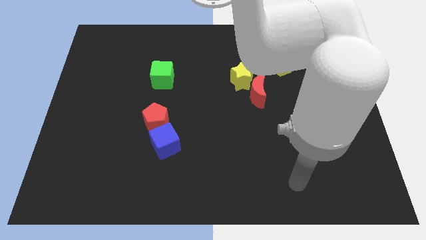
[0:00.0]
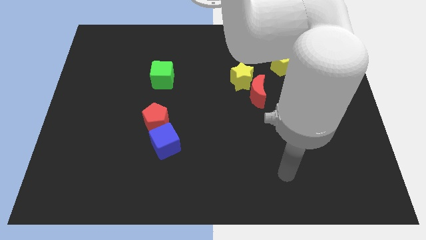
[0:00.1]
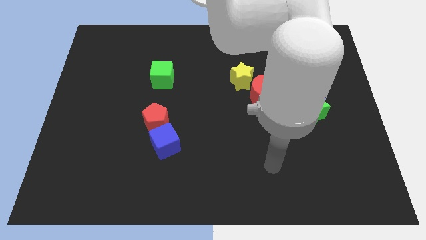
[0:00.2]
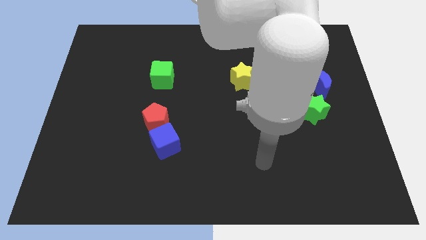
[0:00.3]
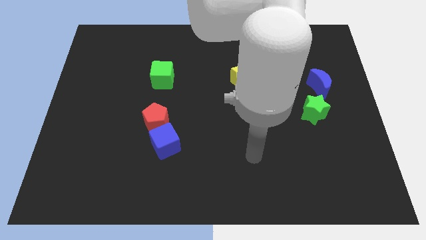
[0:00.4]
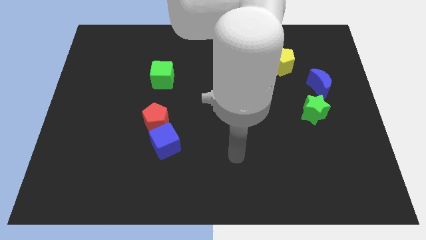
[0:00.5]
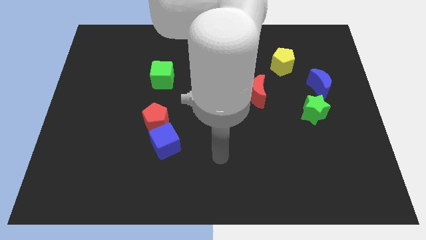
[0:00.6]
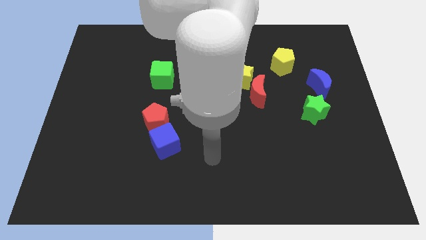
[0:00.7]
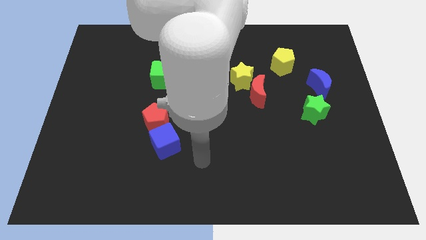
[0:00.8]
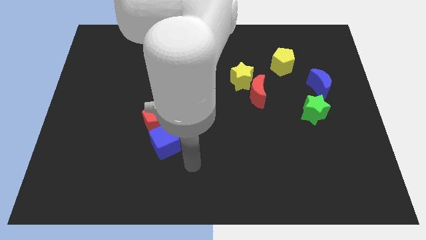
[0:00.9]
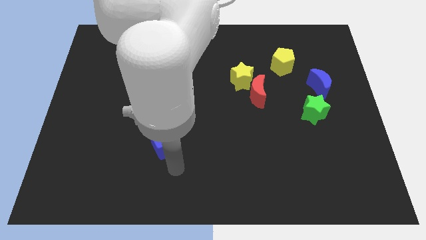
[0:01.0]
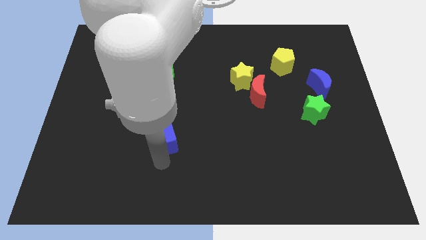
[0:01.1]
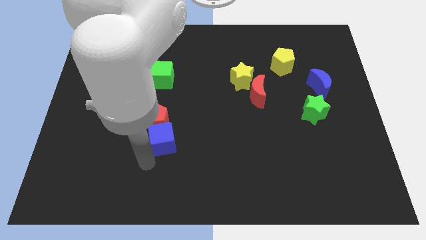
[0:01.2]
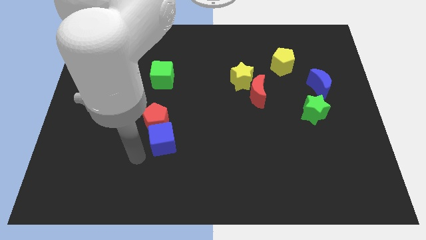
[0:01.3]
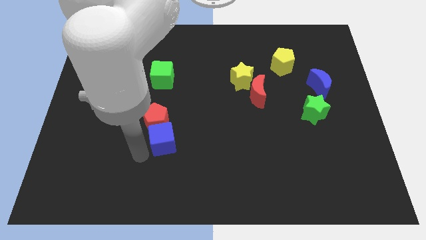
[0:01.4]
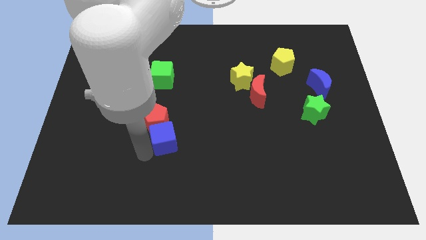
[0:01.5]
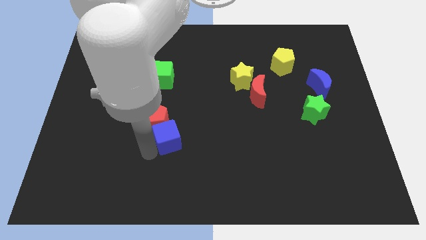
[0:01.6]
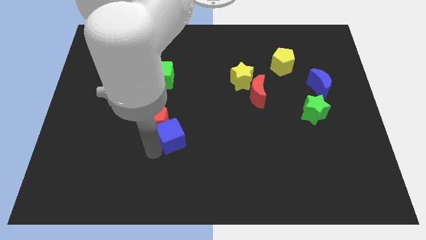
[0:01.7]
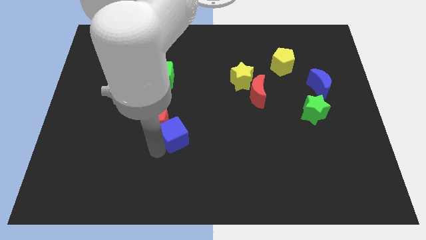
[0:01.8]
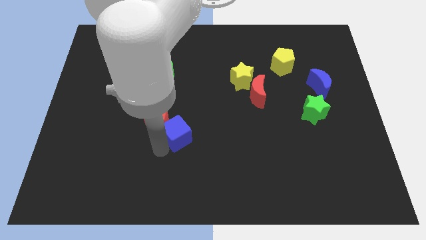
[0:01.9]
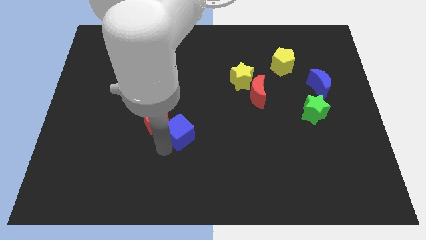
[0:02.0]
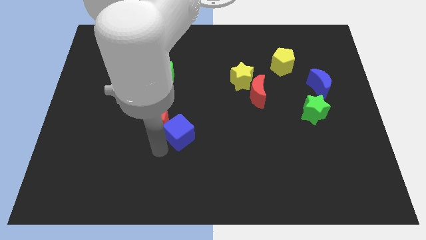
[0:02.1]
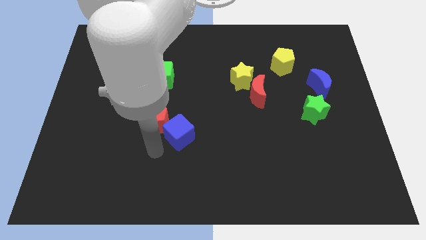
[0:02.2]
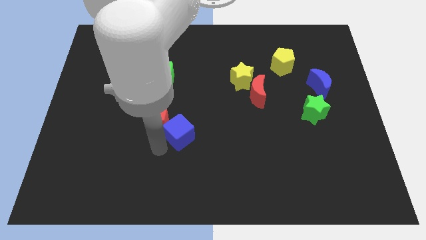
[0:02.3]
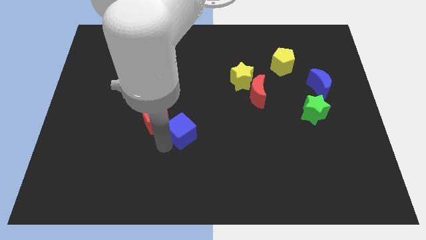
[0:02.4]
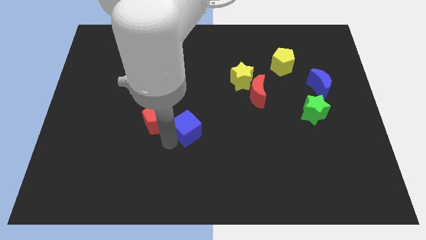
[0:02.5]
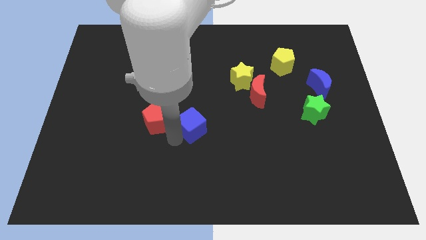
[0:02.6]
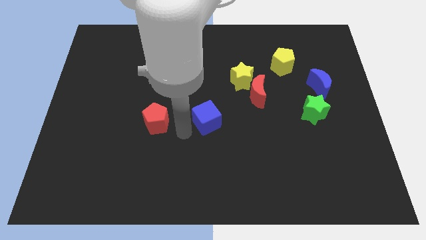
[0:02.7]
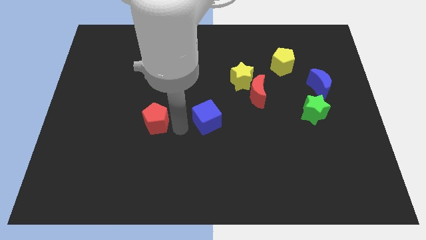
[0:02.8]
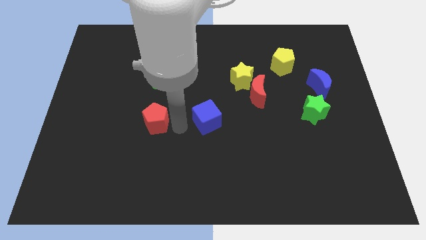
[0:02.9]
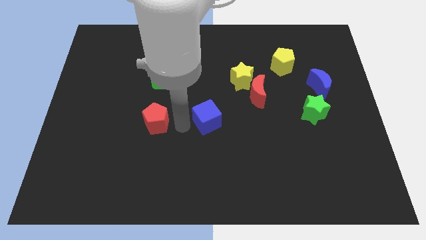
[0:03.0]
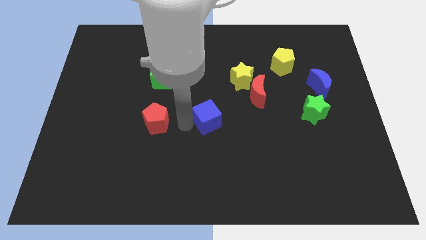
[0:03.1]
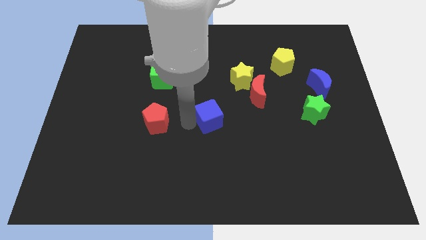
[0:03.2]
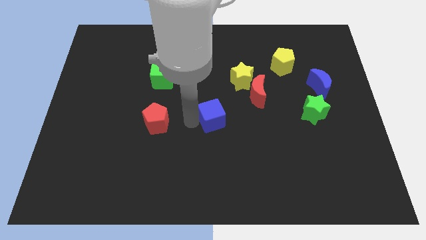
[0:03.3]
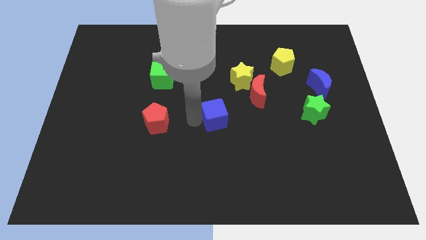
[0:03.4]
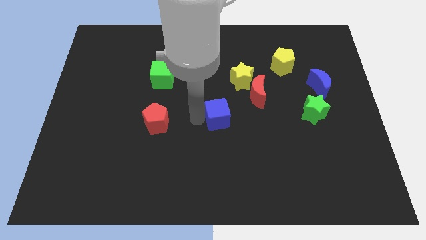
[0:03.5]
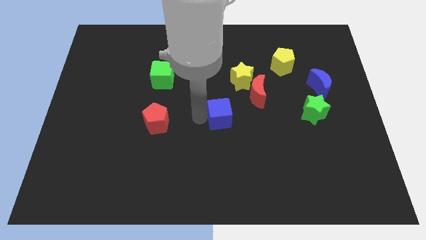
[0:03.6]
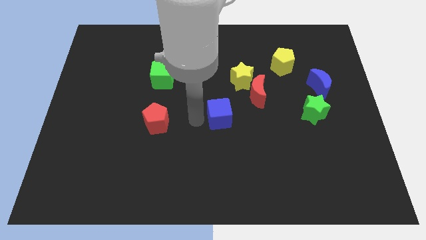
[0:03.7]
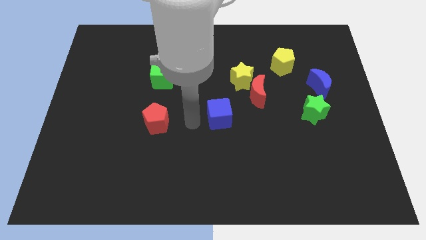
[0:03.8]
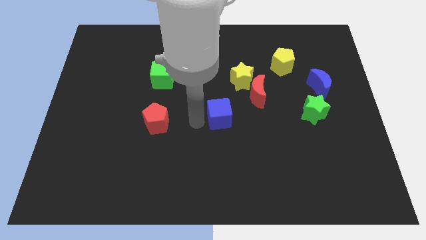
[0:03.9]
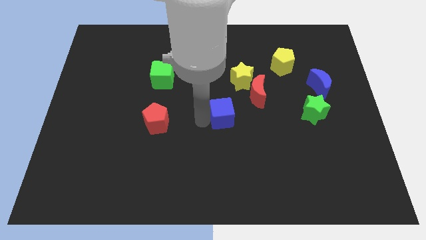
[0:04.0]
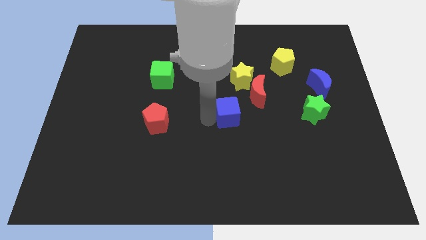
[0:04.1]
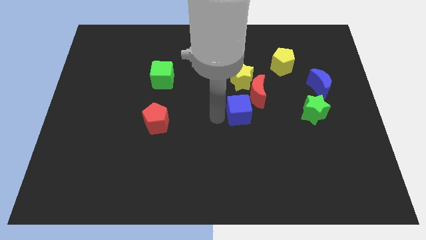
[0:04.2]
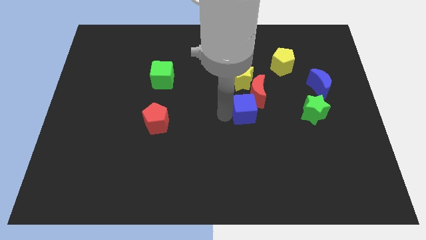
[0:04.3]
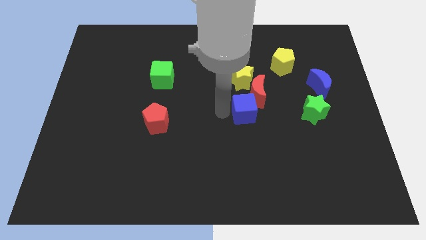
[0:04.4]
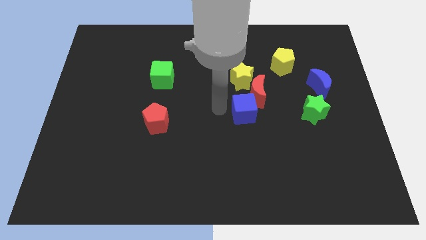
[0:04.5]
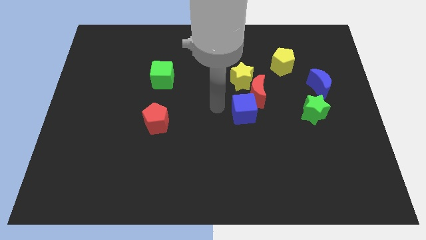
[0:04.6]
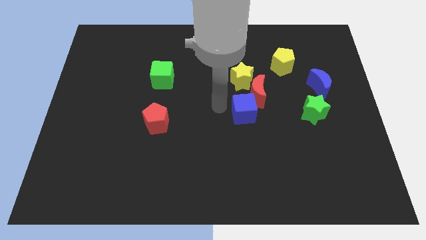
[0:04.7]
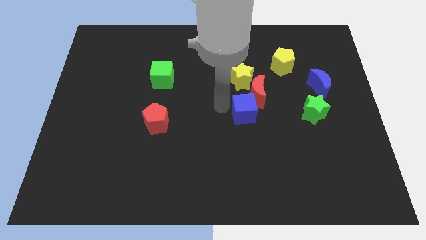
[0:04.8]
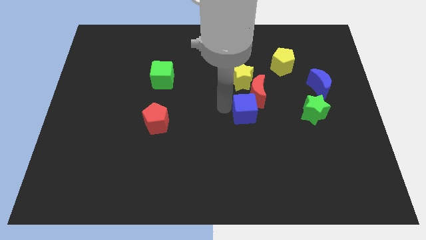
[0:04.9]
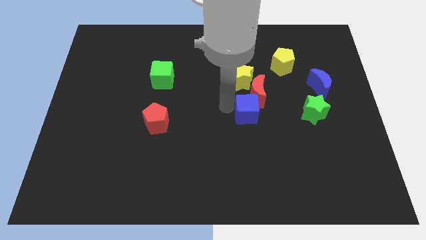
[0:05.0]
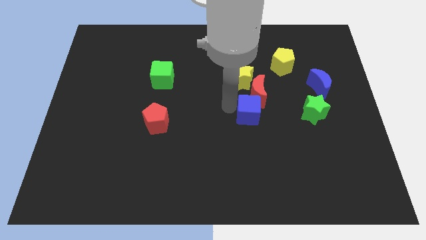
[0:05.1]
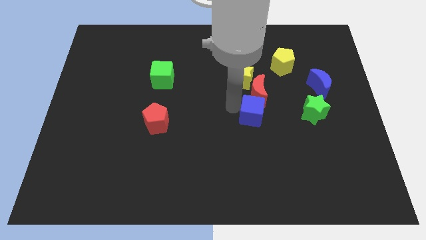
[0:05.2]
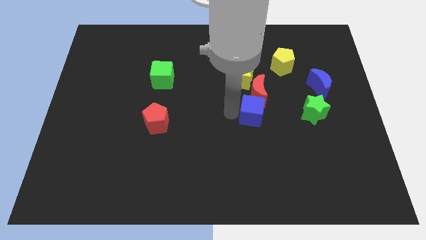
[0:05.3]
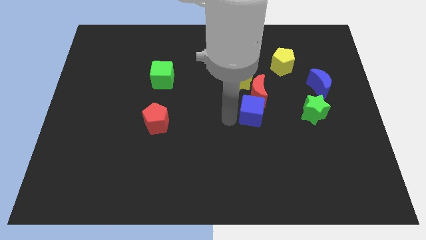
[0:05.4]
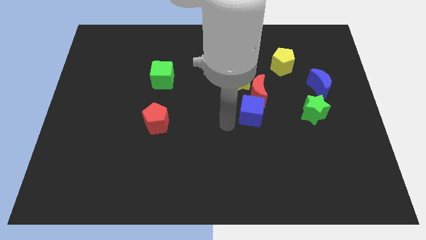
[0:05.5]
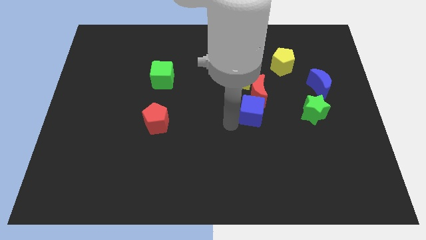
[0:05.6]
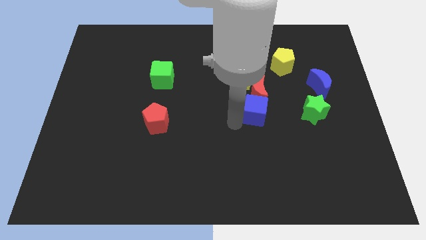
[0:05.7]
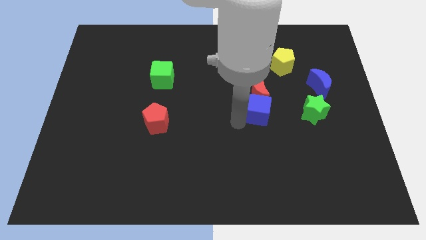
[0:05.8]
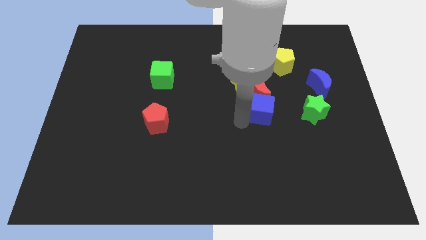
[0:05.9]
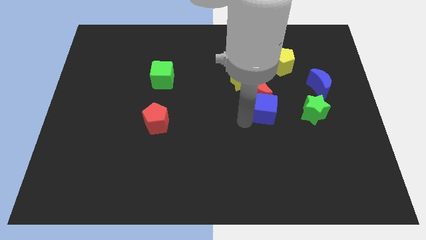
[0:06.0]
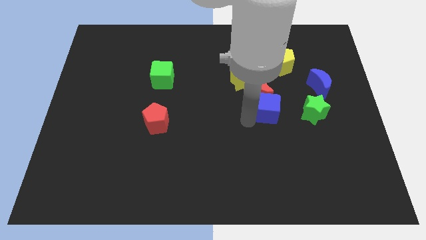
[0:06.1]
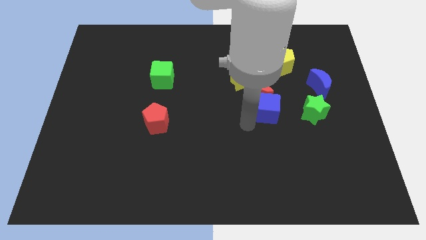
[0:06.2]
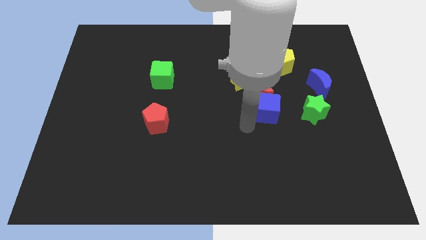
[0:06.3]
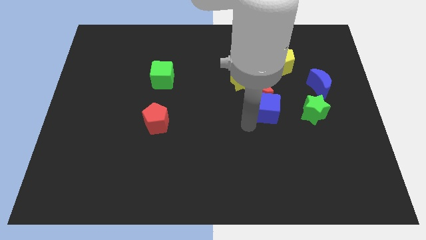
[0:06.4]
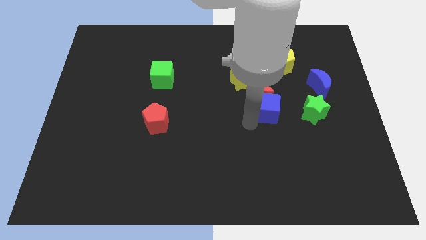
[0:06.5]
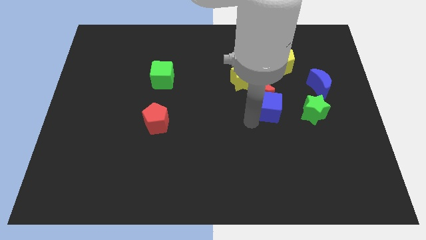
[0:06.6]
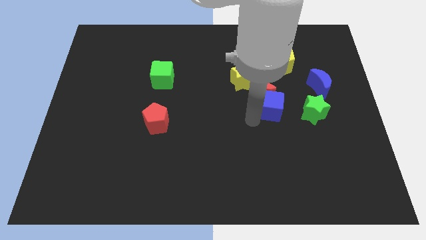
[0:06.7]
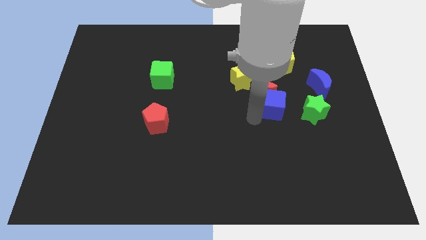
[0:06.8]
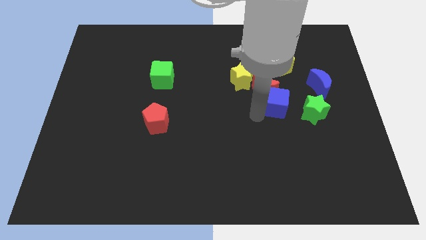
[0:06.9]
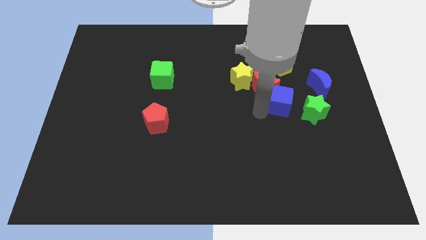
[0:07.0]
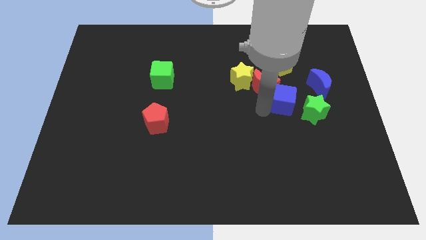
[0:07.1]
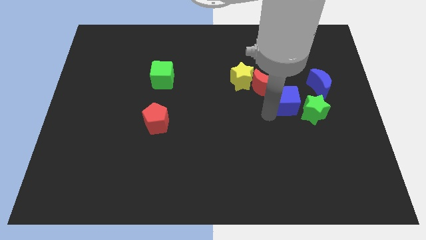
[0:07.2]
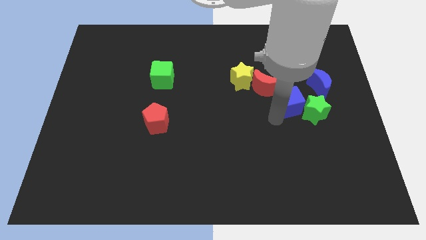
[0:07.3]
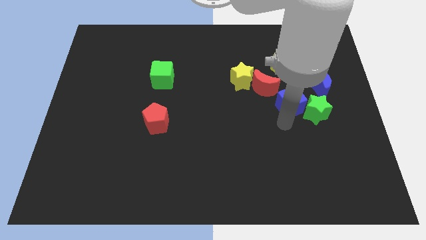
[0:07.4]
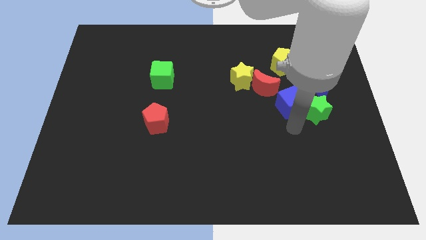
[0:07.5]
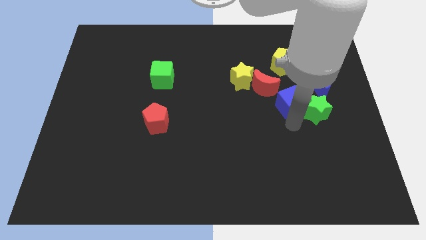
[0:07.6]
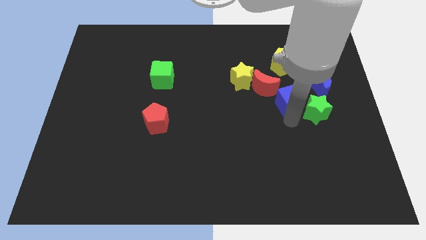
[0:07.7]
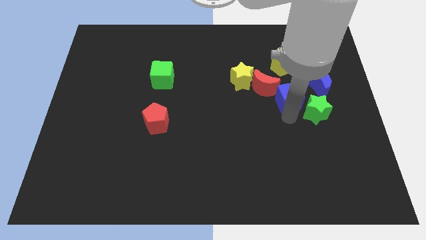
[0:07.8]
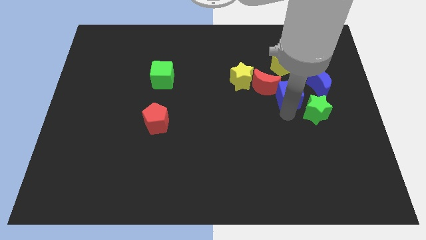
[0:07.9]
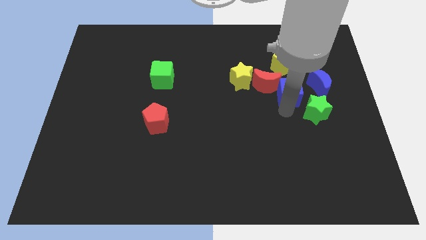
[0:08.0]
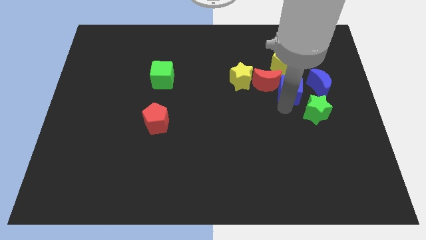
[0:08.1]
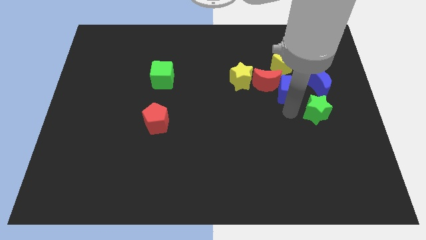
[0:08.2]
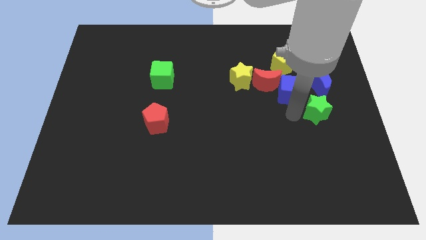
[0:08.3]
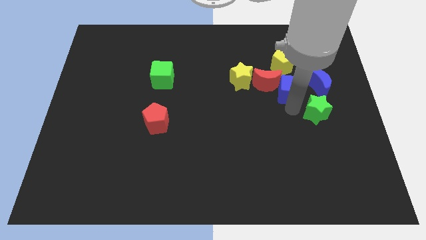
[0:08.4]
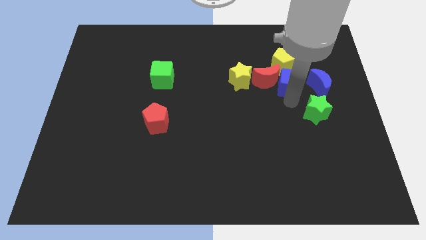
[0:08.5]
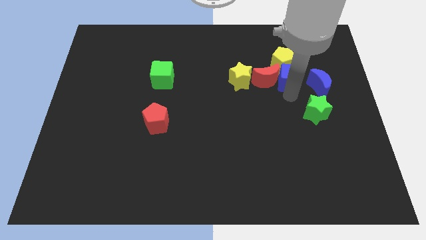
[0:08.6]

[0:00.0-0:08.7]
push the blue cube to the top right side of the red moon
